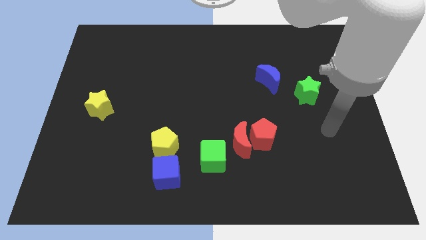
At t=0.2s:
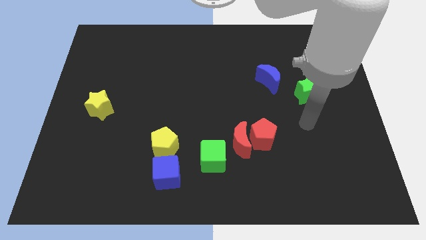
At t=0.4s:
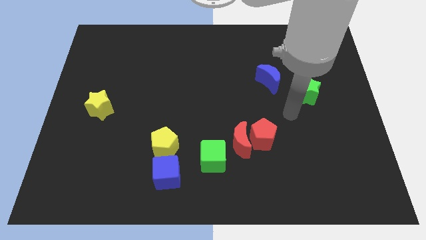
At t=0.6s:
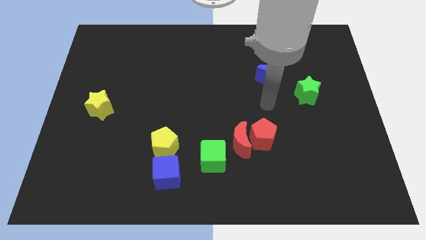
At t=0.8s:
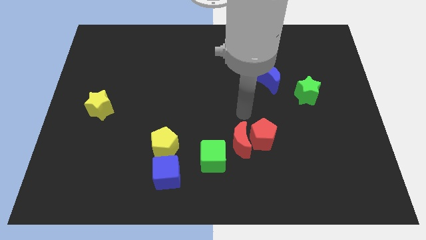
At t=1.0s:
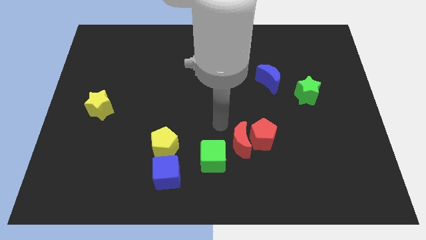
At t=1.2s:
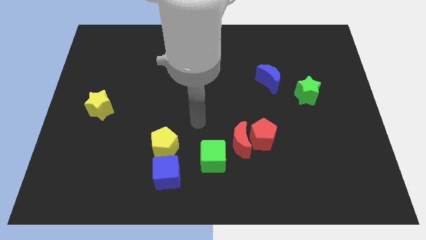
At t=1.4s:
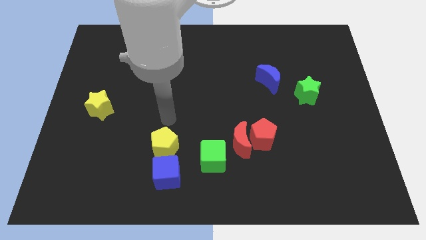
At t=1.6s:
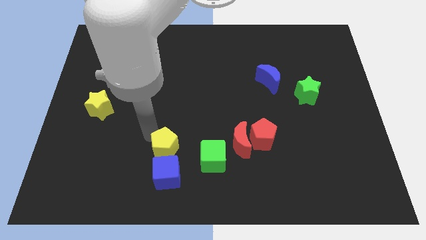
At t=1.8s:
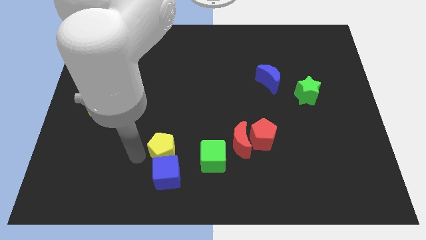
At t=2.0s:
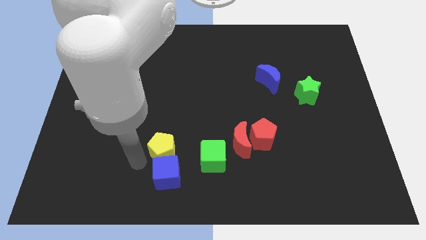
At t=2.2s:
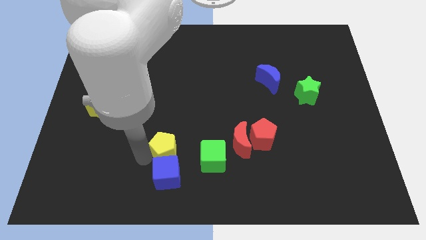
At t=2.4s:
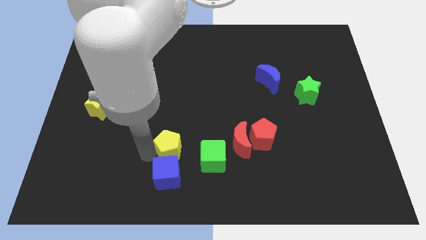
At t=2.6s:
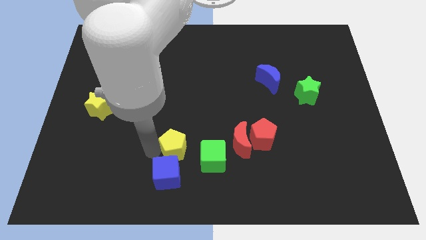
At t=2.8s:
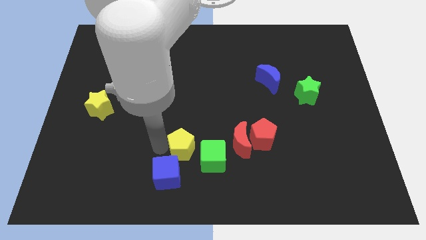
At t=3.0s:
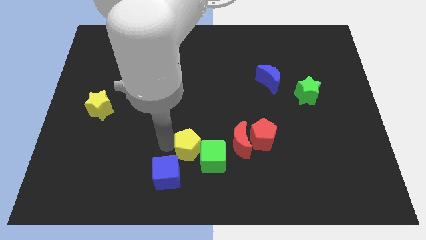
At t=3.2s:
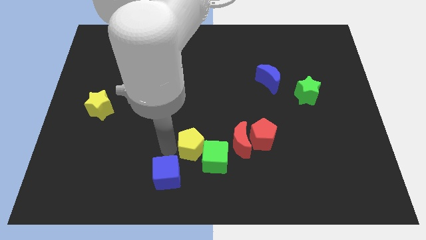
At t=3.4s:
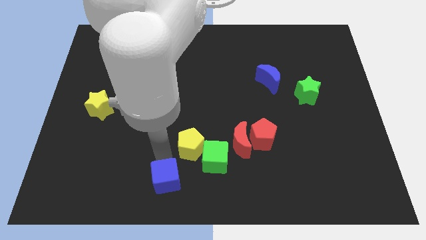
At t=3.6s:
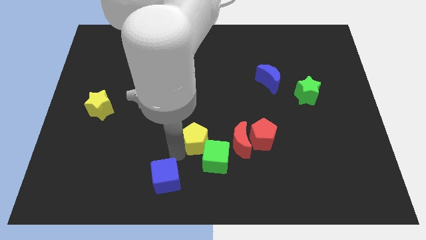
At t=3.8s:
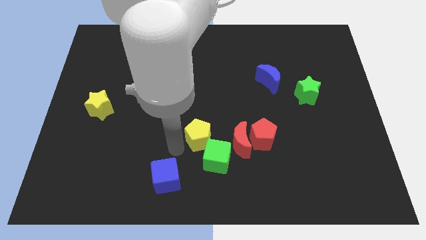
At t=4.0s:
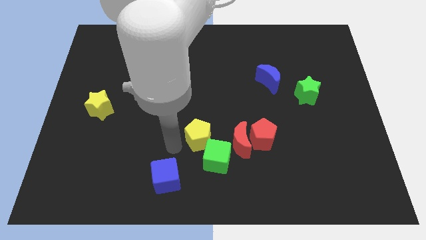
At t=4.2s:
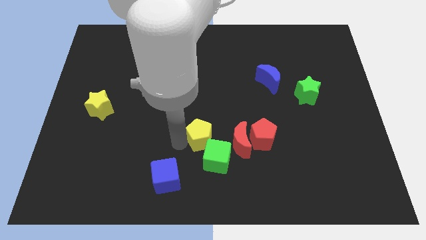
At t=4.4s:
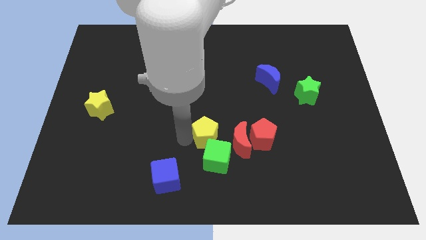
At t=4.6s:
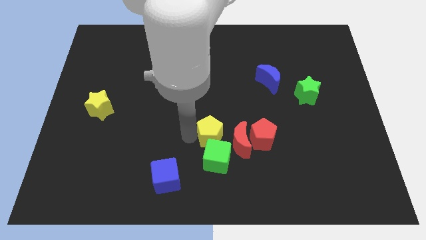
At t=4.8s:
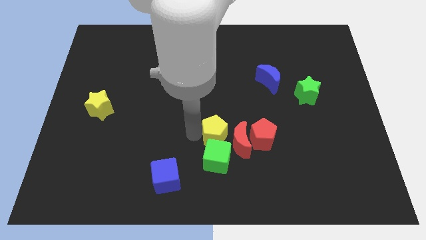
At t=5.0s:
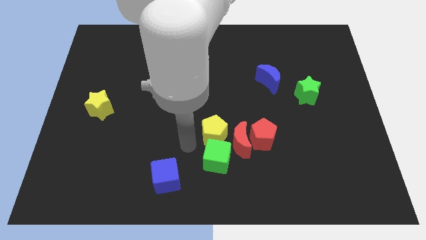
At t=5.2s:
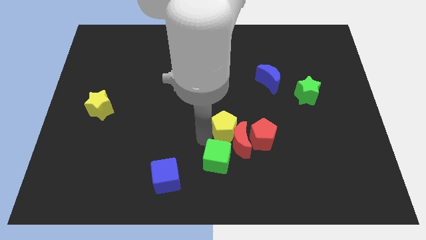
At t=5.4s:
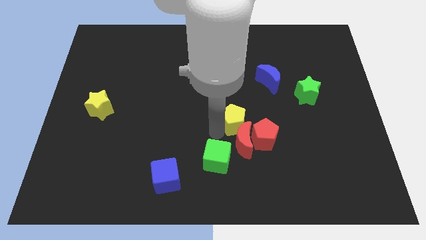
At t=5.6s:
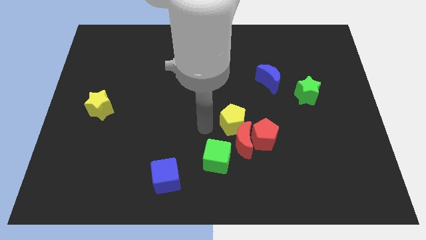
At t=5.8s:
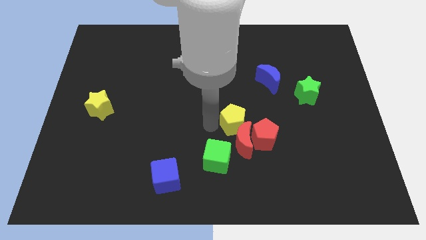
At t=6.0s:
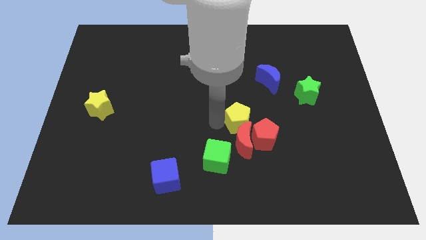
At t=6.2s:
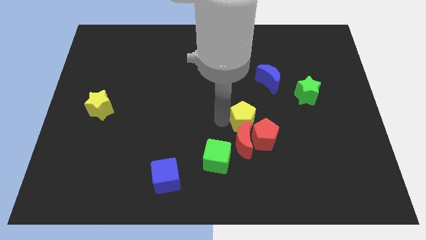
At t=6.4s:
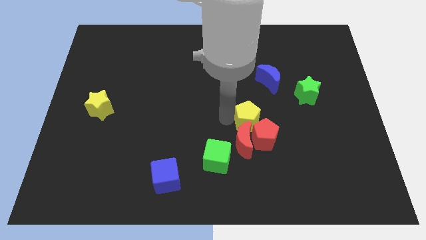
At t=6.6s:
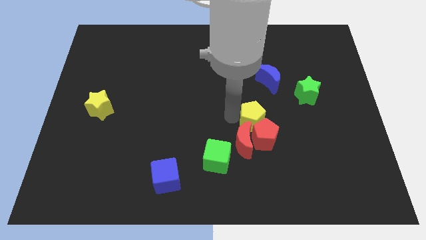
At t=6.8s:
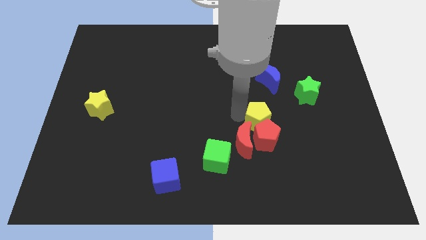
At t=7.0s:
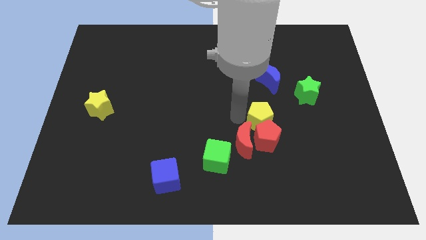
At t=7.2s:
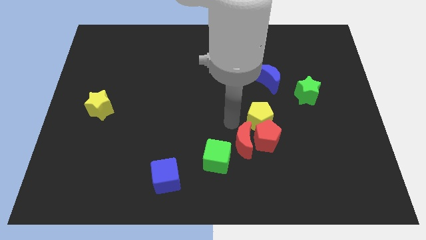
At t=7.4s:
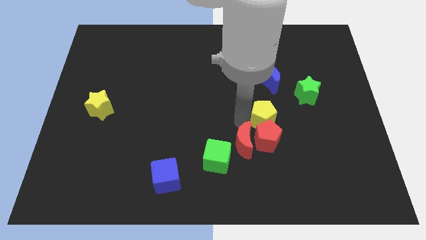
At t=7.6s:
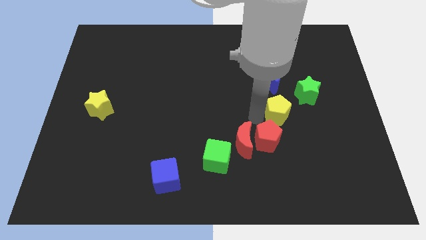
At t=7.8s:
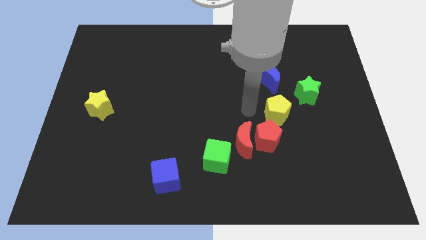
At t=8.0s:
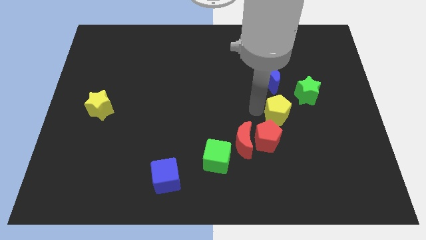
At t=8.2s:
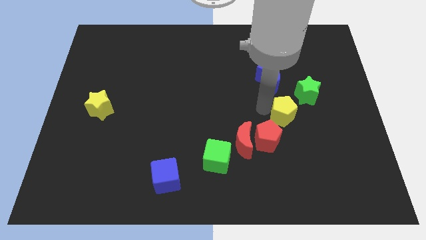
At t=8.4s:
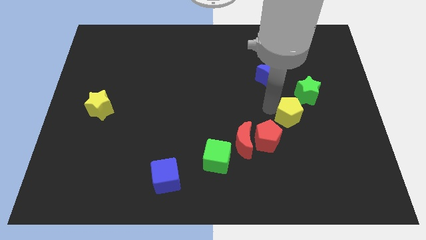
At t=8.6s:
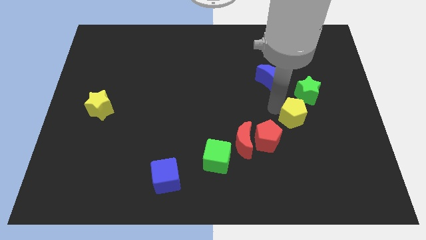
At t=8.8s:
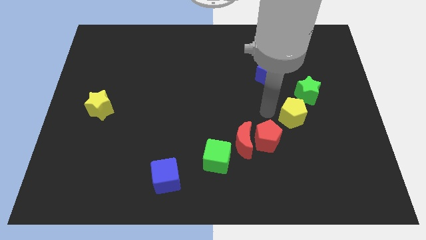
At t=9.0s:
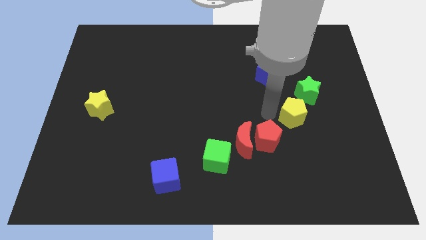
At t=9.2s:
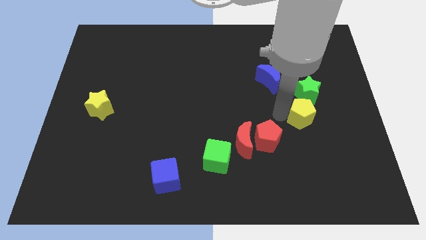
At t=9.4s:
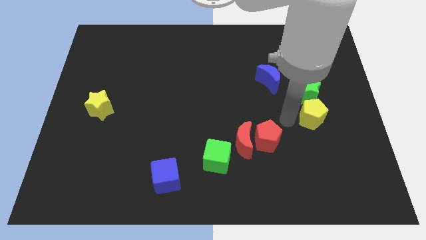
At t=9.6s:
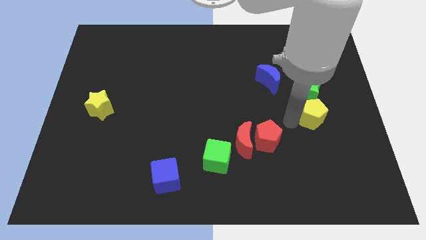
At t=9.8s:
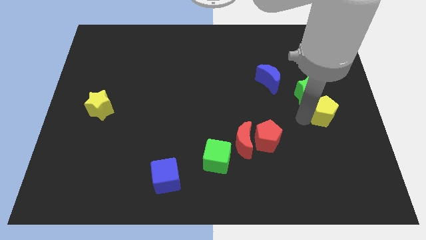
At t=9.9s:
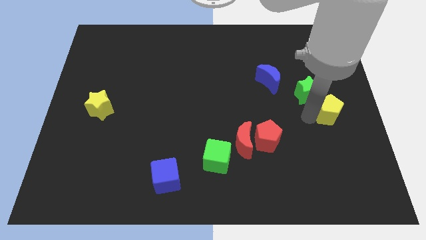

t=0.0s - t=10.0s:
move the yellow pentagon to the right side of the board

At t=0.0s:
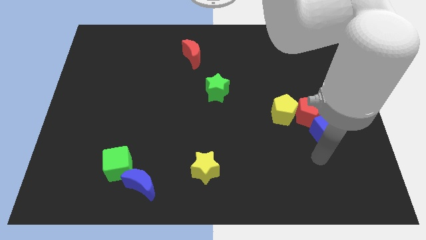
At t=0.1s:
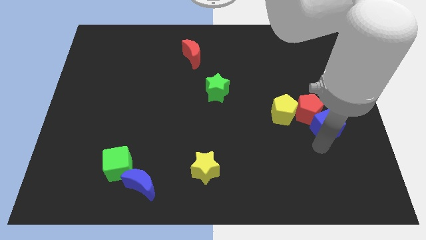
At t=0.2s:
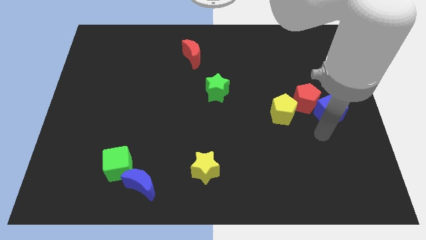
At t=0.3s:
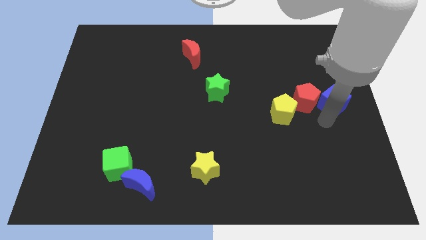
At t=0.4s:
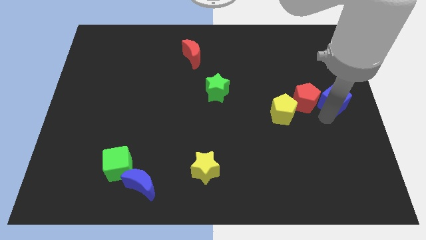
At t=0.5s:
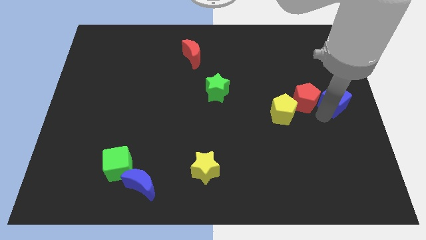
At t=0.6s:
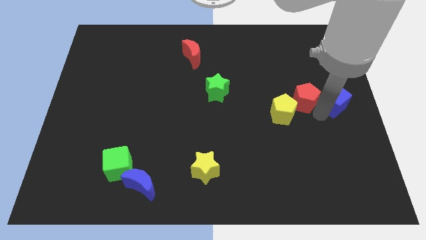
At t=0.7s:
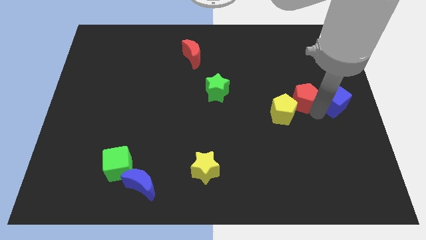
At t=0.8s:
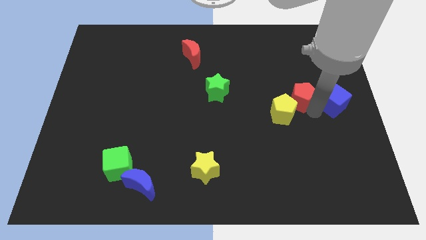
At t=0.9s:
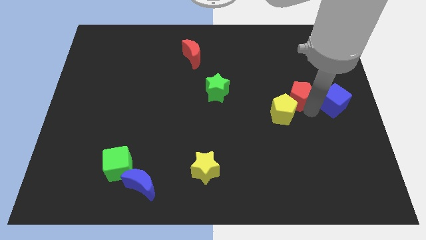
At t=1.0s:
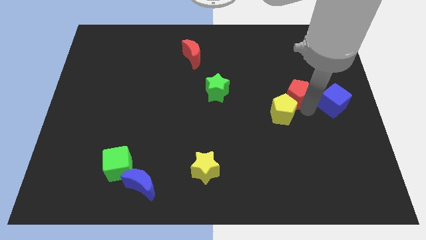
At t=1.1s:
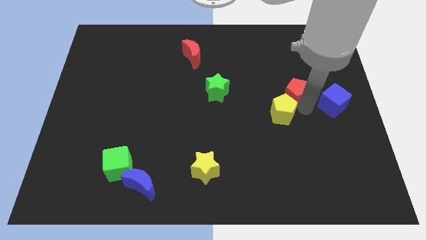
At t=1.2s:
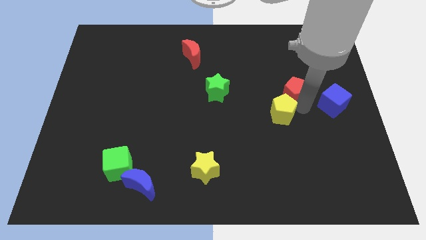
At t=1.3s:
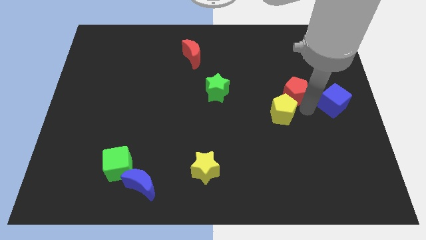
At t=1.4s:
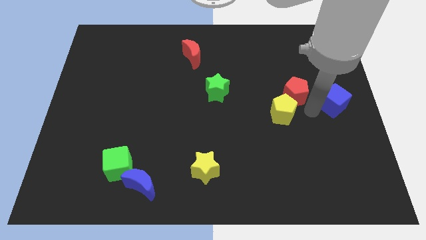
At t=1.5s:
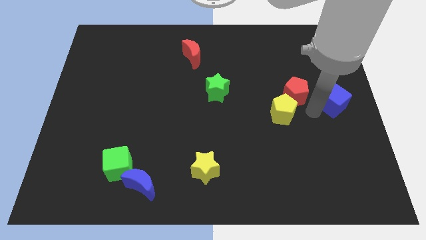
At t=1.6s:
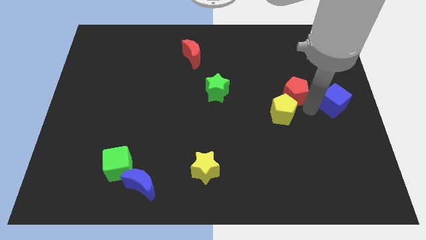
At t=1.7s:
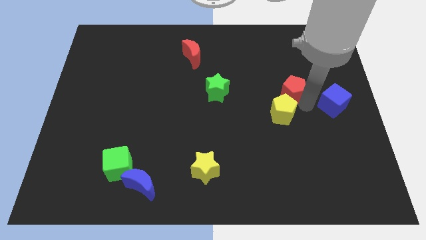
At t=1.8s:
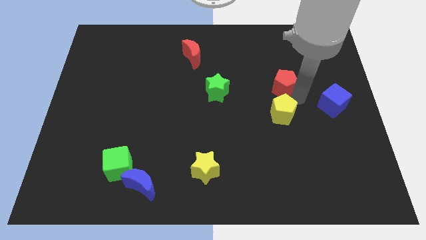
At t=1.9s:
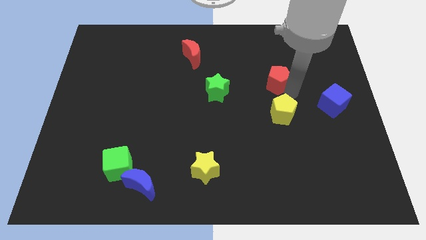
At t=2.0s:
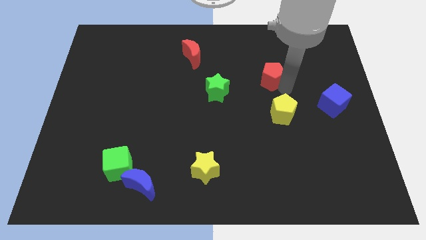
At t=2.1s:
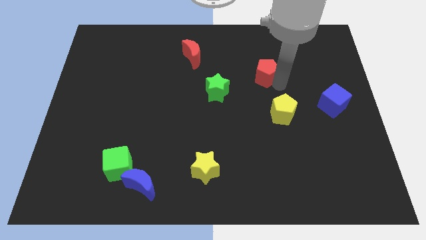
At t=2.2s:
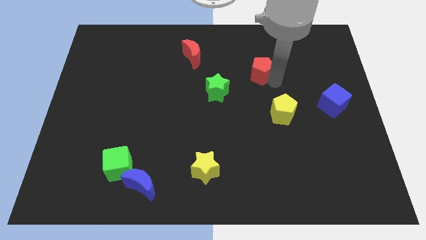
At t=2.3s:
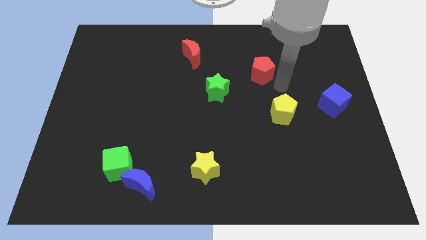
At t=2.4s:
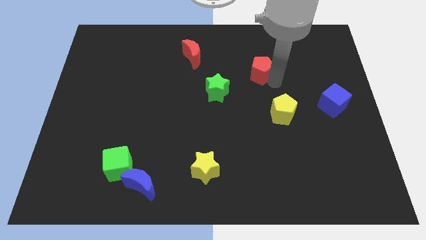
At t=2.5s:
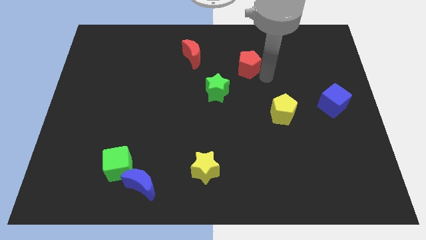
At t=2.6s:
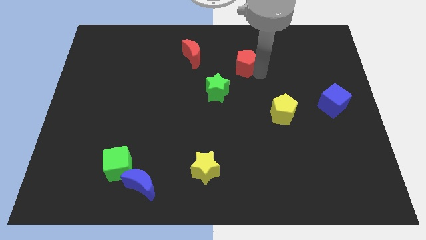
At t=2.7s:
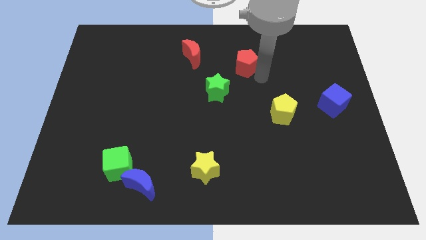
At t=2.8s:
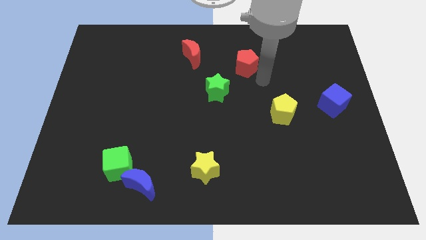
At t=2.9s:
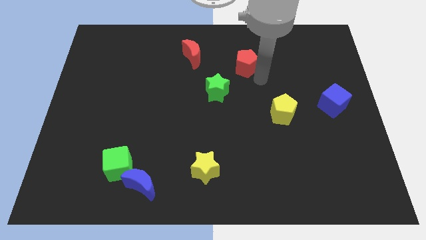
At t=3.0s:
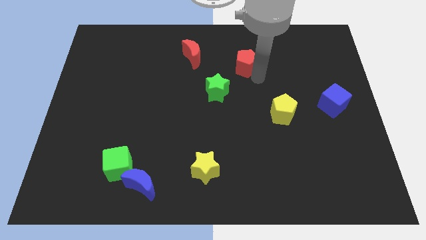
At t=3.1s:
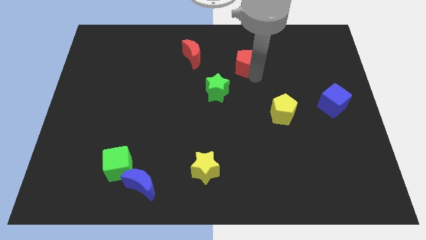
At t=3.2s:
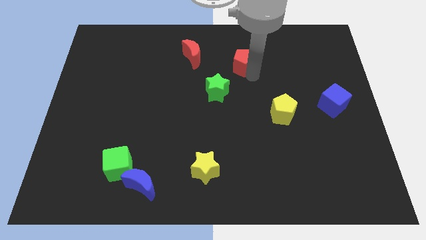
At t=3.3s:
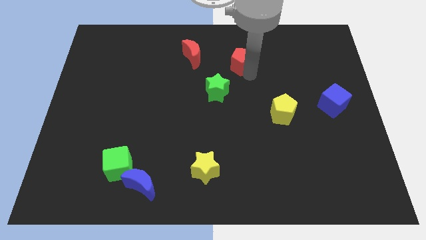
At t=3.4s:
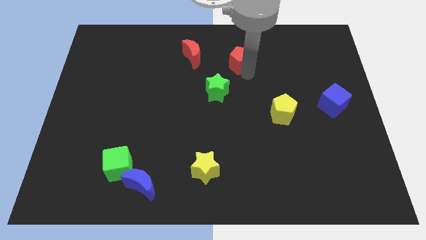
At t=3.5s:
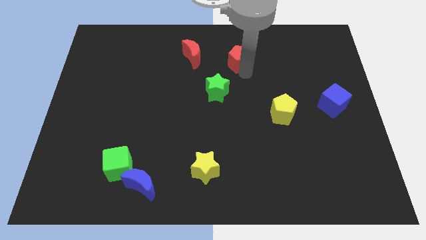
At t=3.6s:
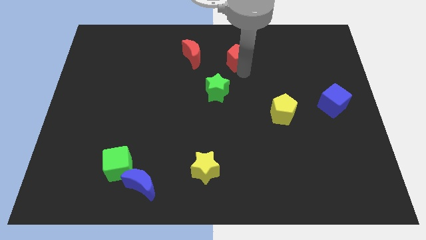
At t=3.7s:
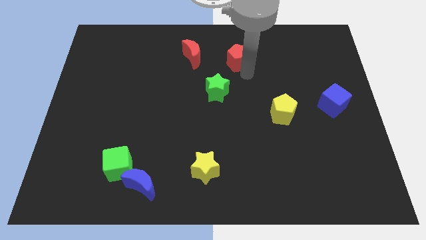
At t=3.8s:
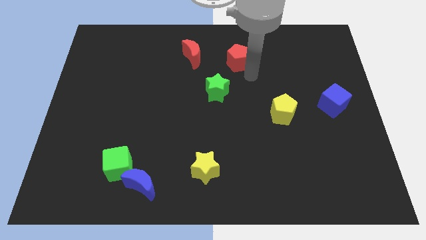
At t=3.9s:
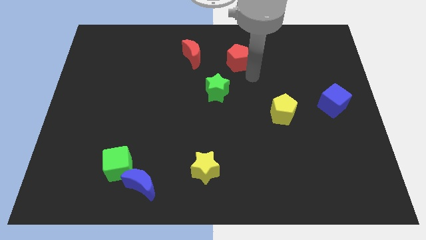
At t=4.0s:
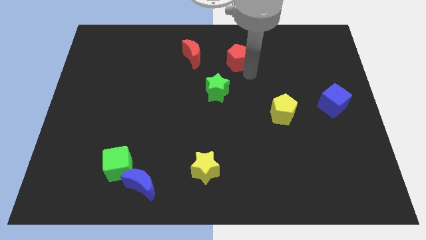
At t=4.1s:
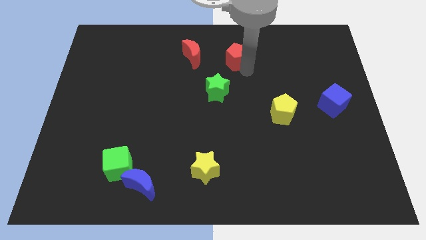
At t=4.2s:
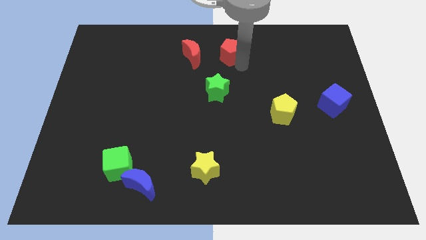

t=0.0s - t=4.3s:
push the red pentagon to the towards your base
